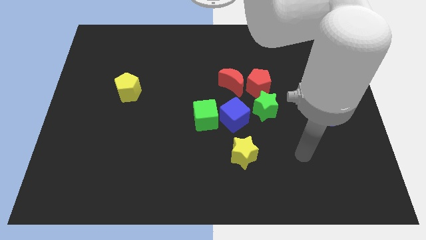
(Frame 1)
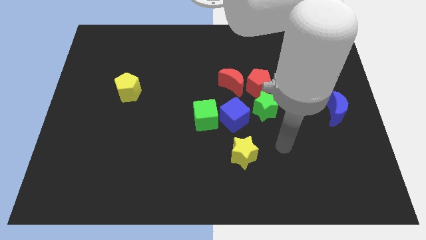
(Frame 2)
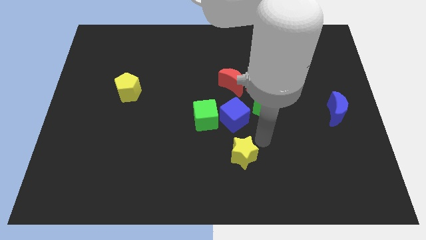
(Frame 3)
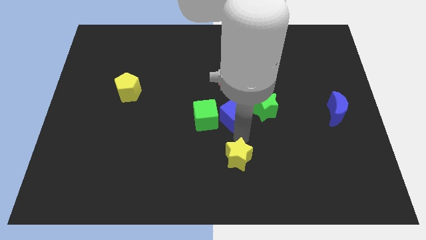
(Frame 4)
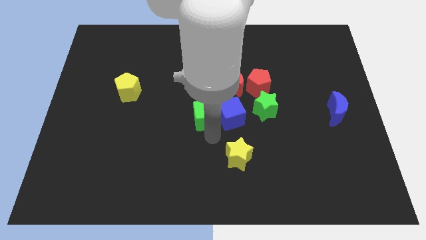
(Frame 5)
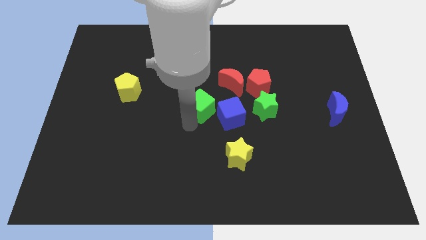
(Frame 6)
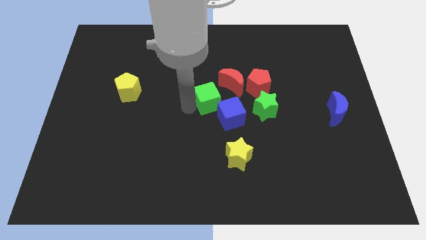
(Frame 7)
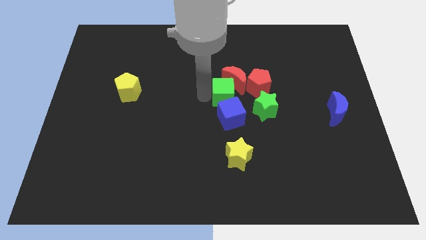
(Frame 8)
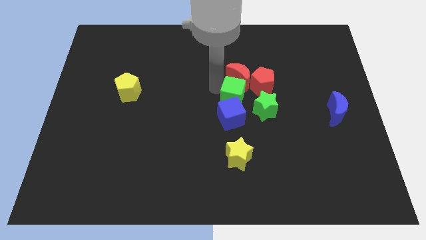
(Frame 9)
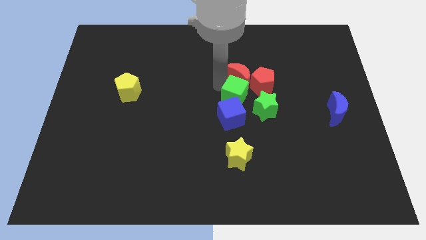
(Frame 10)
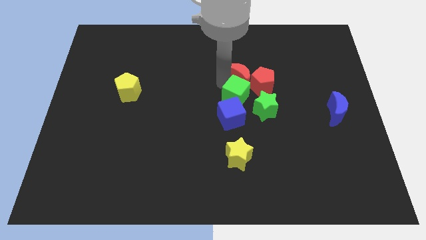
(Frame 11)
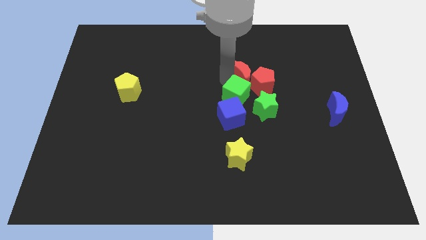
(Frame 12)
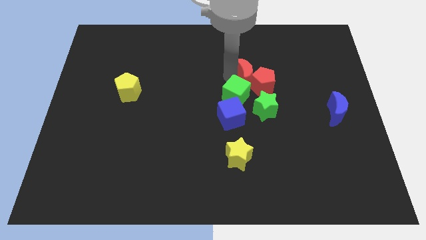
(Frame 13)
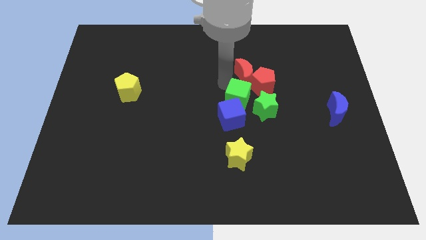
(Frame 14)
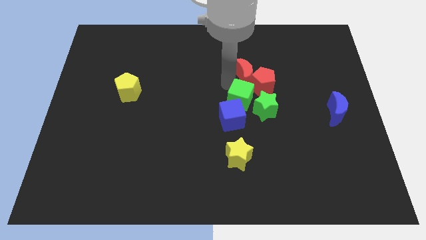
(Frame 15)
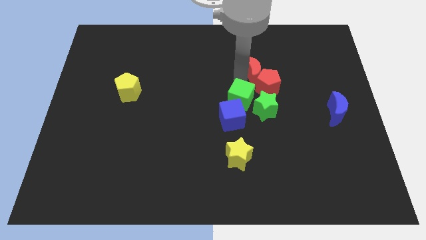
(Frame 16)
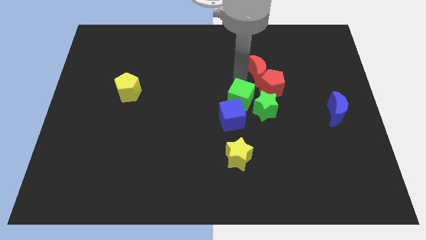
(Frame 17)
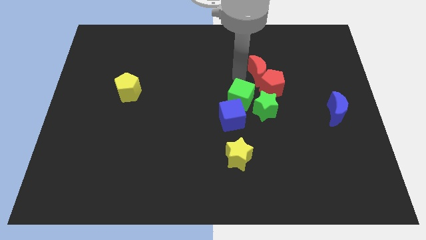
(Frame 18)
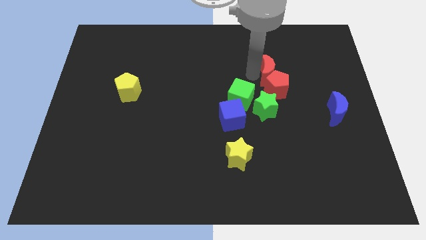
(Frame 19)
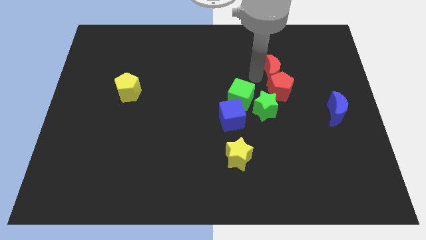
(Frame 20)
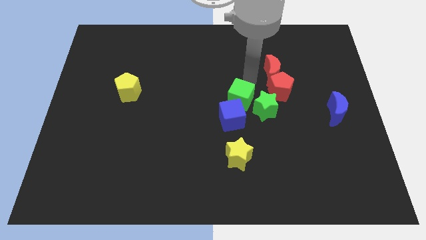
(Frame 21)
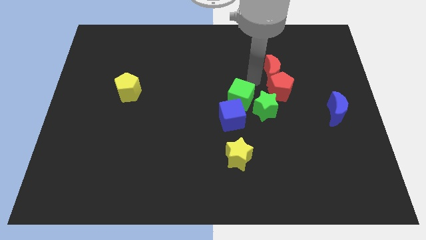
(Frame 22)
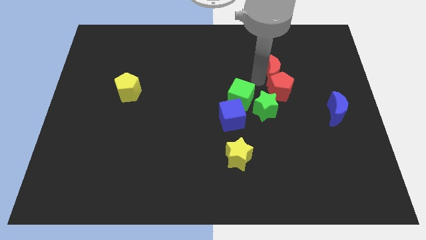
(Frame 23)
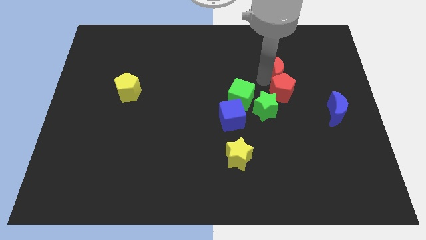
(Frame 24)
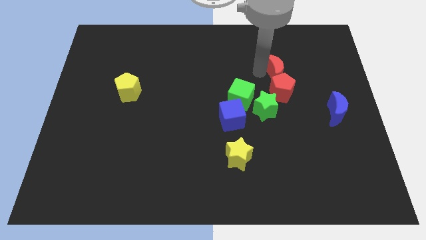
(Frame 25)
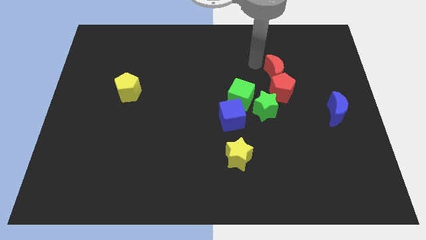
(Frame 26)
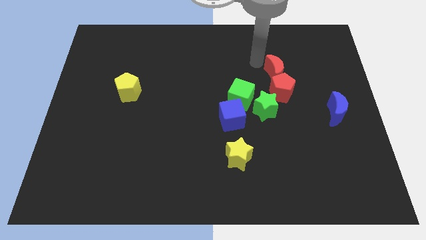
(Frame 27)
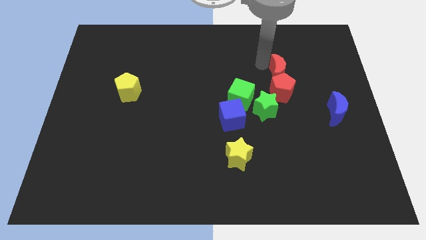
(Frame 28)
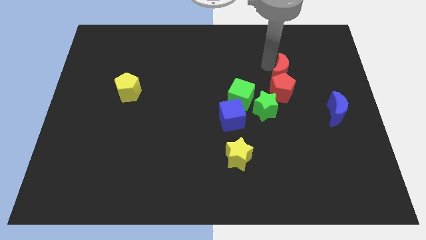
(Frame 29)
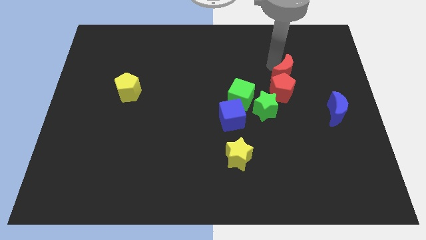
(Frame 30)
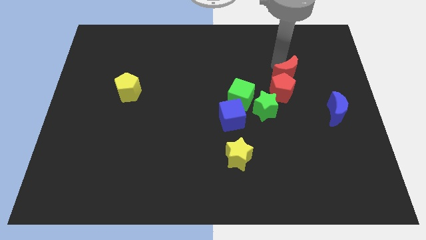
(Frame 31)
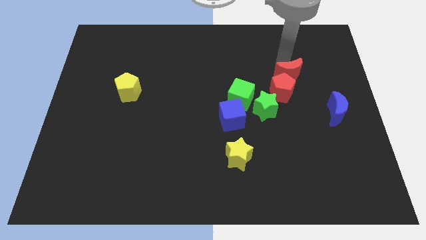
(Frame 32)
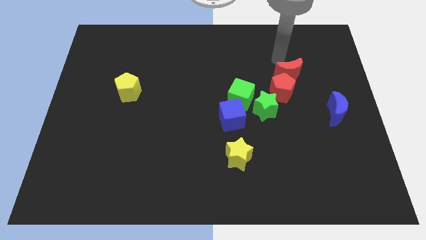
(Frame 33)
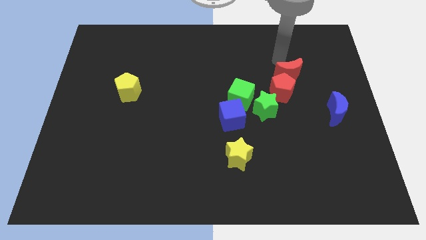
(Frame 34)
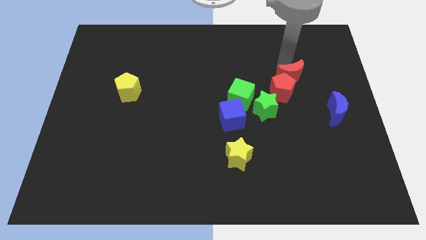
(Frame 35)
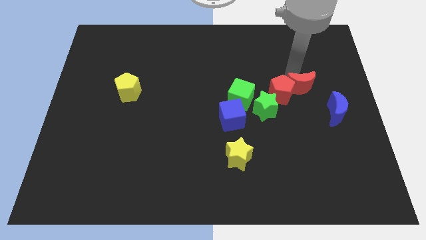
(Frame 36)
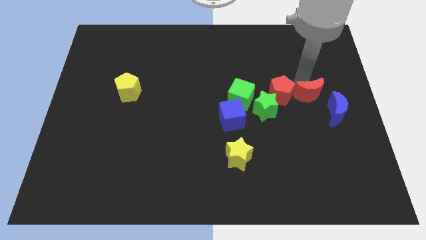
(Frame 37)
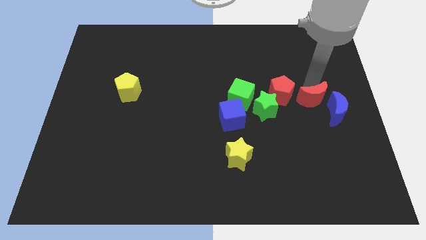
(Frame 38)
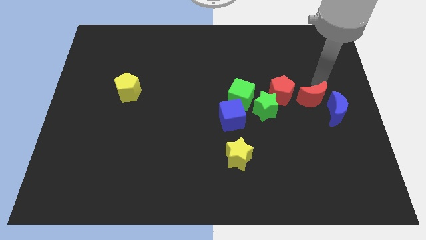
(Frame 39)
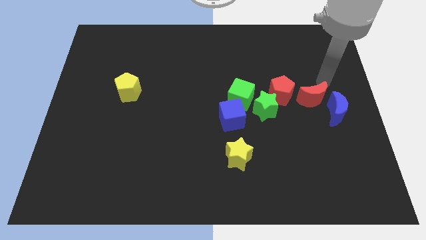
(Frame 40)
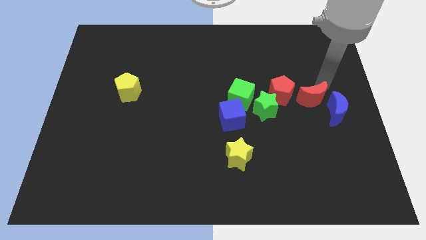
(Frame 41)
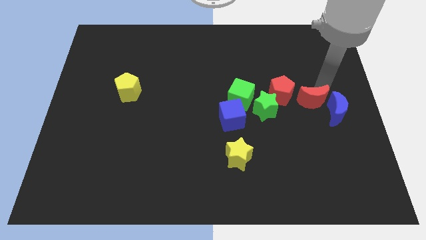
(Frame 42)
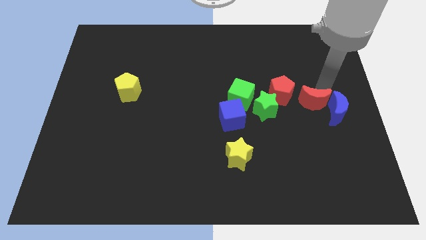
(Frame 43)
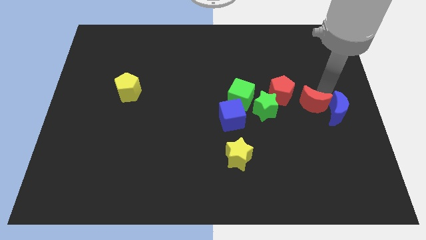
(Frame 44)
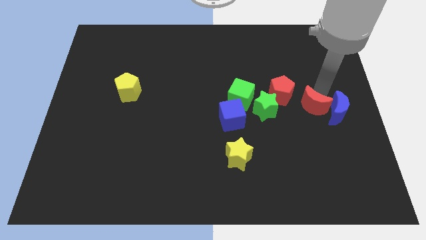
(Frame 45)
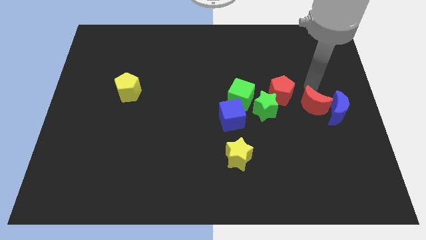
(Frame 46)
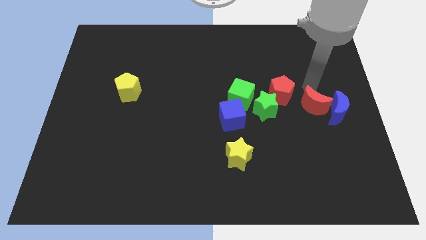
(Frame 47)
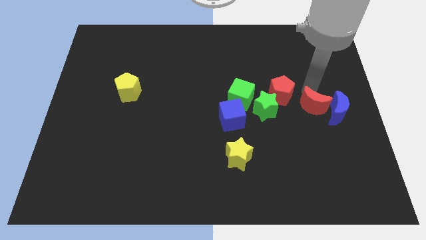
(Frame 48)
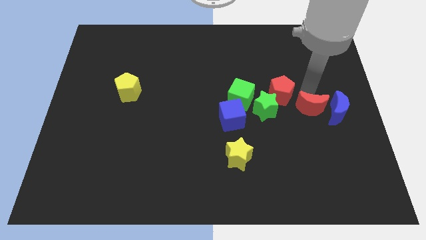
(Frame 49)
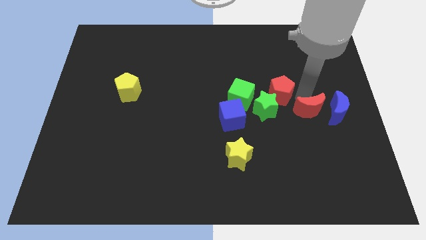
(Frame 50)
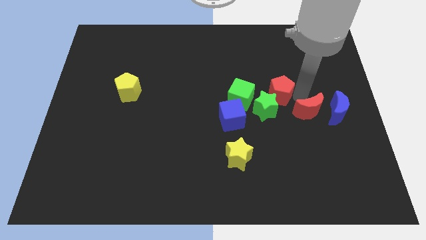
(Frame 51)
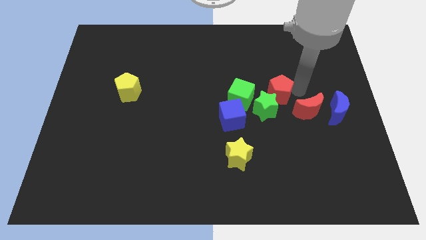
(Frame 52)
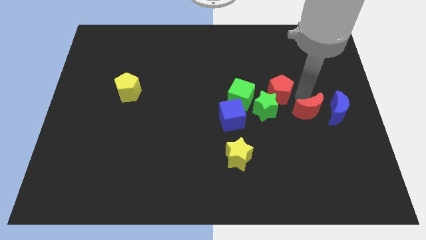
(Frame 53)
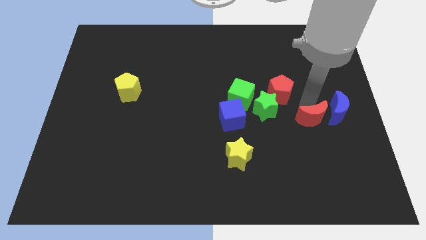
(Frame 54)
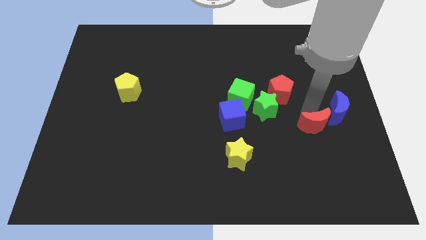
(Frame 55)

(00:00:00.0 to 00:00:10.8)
push the red moon down and then right

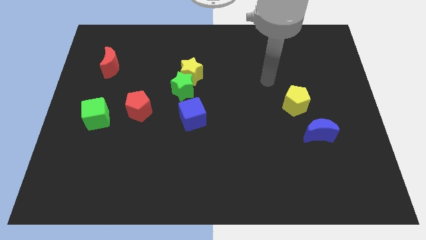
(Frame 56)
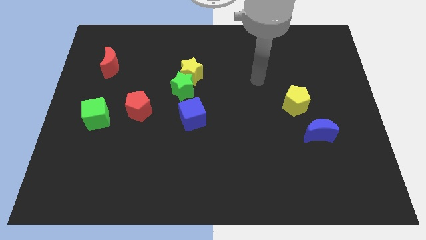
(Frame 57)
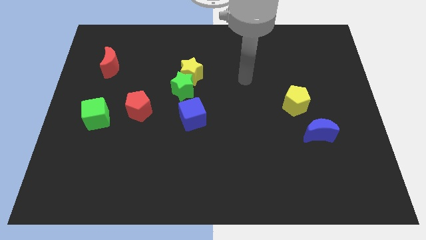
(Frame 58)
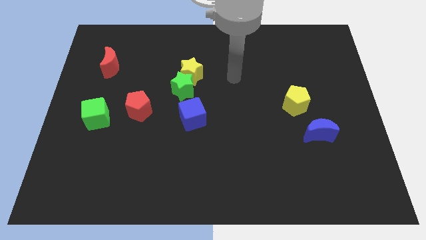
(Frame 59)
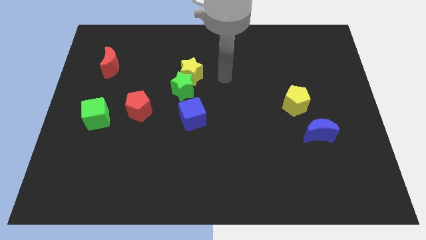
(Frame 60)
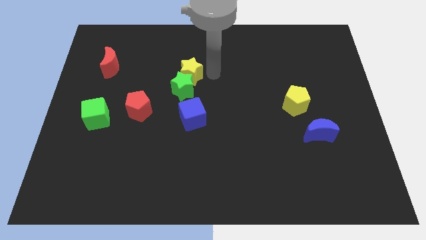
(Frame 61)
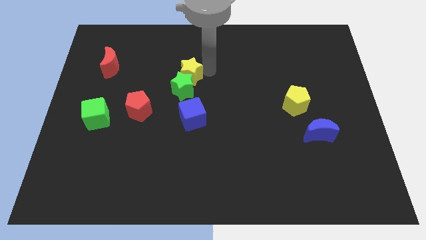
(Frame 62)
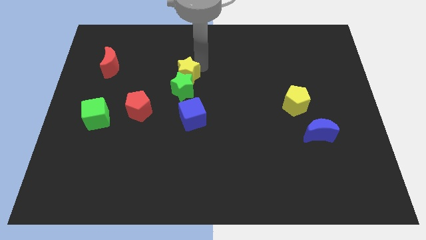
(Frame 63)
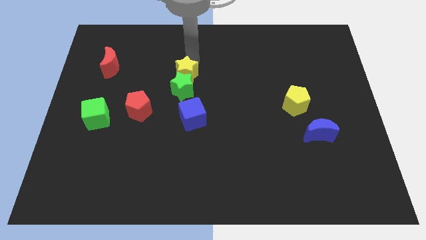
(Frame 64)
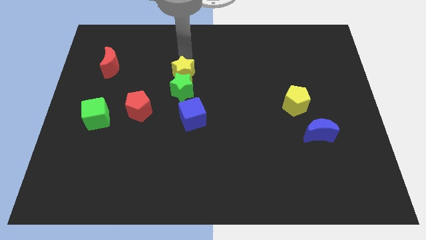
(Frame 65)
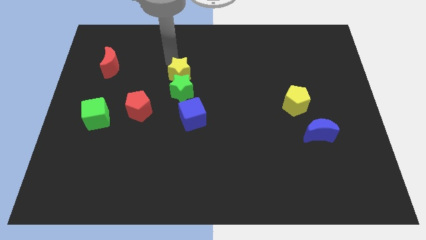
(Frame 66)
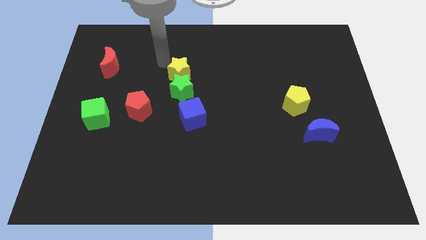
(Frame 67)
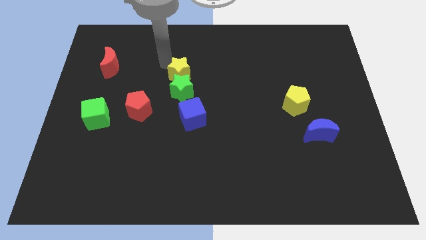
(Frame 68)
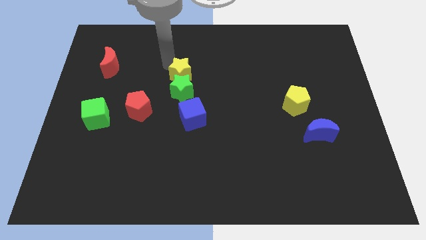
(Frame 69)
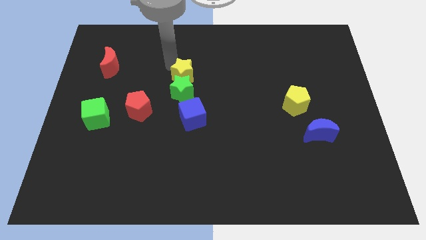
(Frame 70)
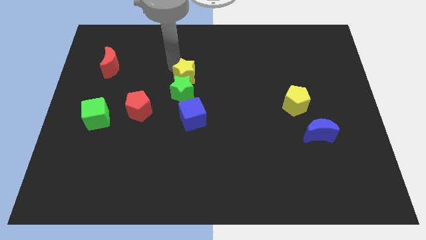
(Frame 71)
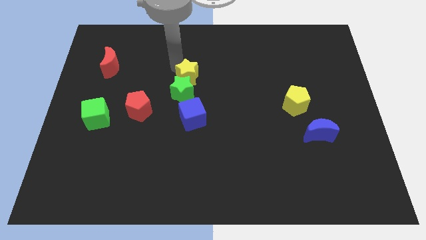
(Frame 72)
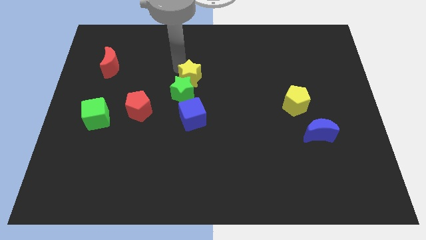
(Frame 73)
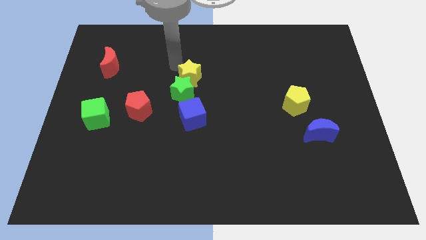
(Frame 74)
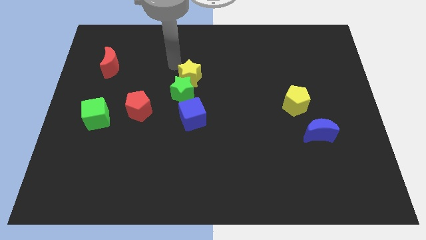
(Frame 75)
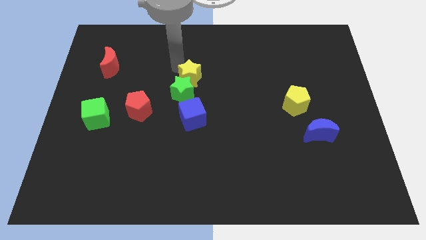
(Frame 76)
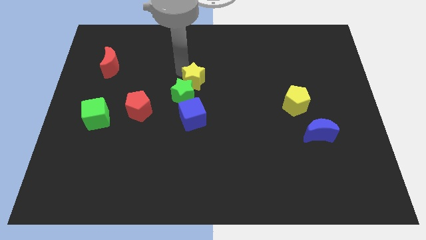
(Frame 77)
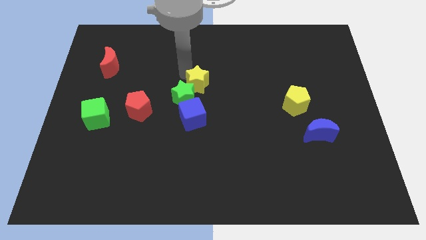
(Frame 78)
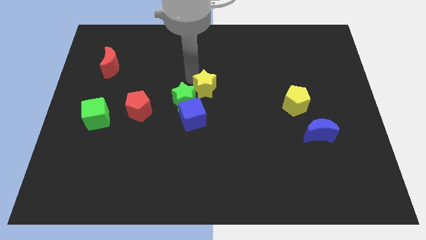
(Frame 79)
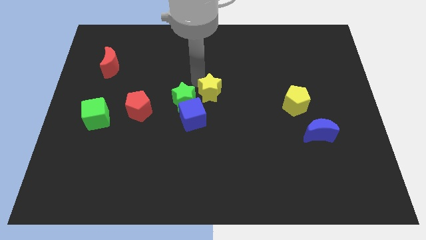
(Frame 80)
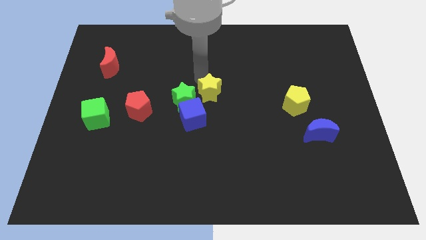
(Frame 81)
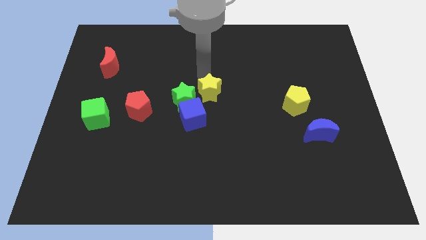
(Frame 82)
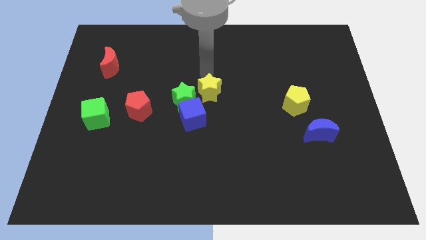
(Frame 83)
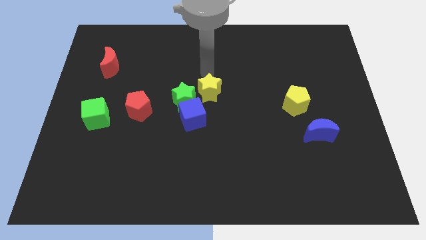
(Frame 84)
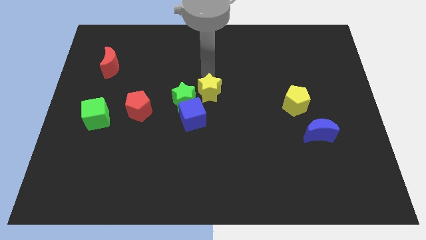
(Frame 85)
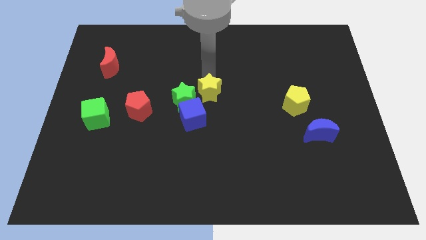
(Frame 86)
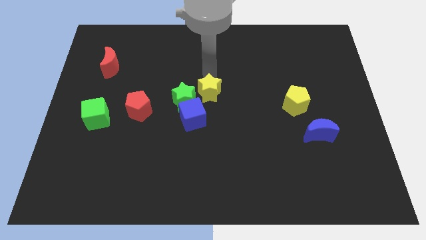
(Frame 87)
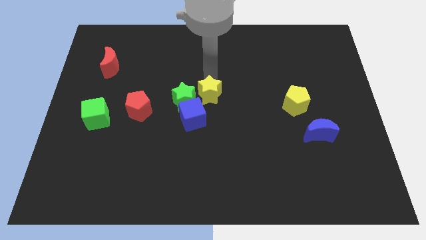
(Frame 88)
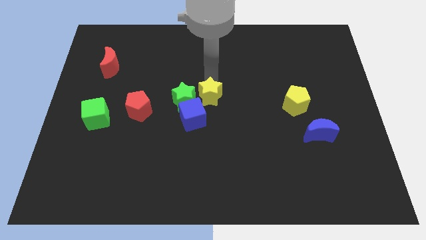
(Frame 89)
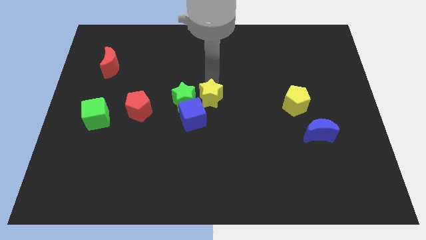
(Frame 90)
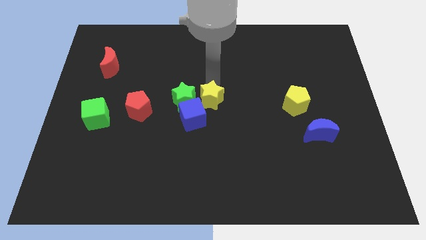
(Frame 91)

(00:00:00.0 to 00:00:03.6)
slide the yellow star a little bit downwards
